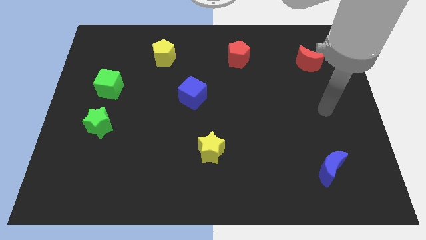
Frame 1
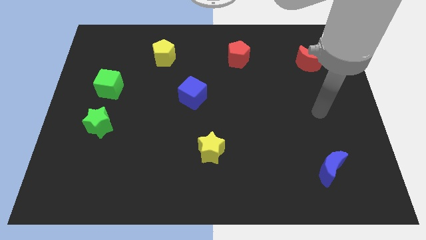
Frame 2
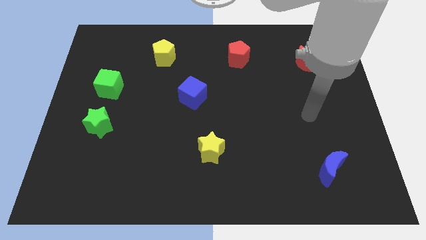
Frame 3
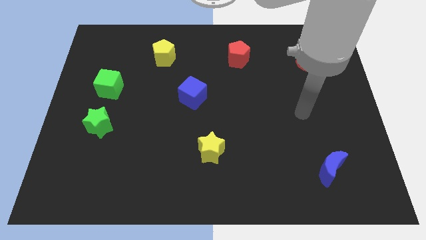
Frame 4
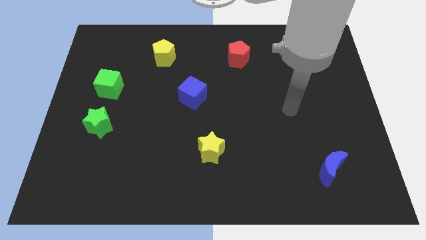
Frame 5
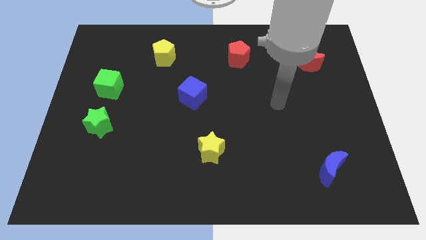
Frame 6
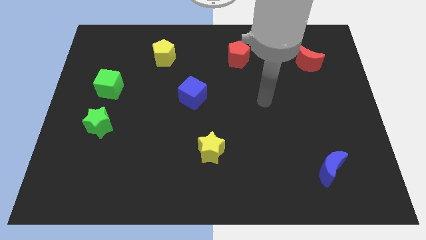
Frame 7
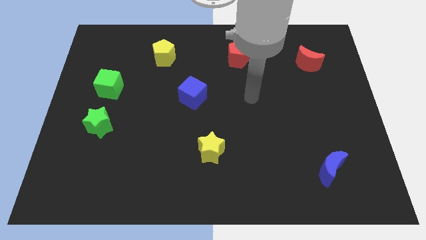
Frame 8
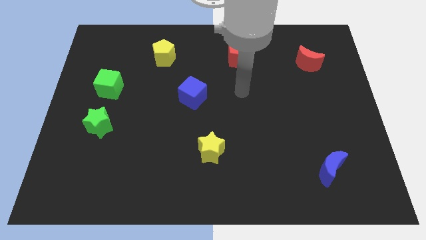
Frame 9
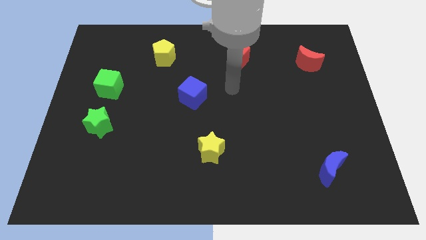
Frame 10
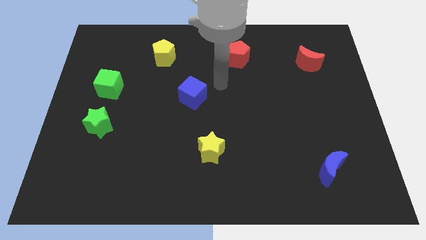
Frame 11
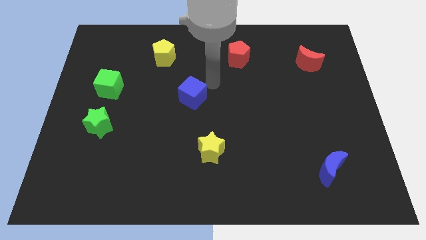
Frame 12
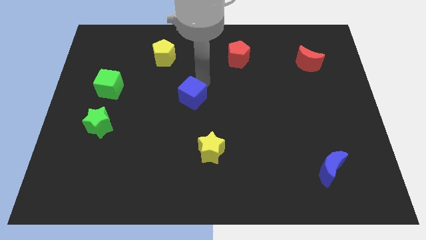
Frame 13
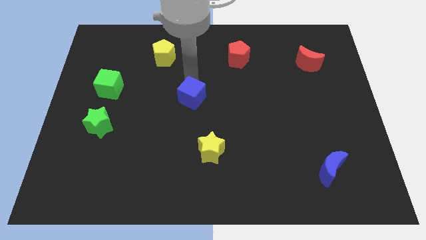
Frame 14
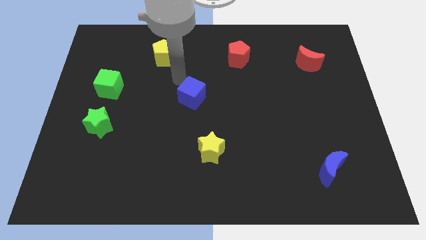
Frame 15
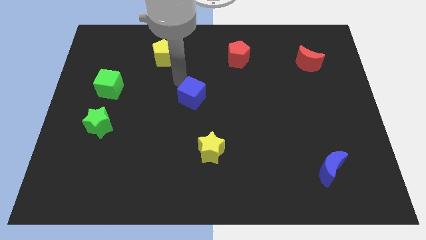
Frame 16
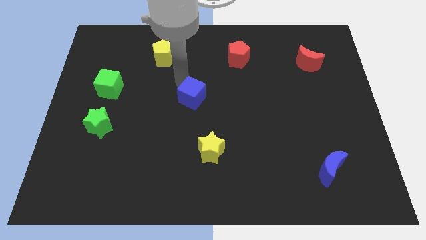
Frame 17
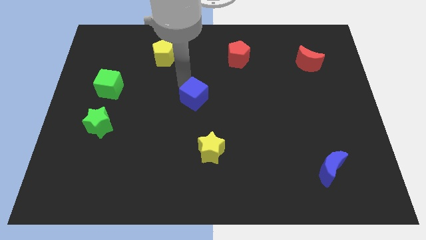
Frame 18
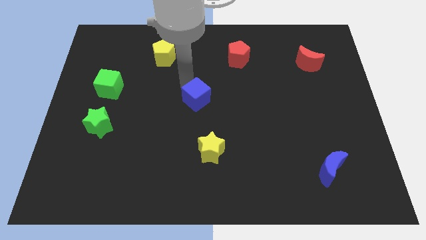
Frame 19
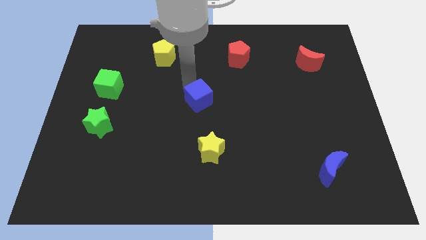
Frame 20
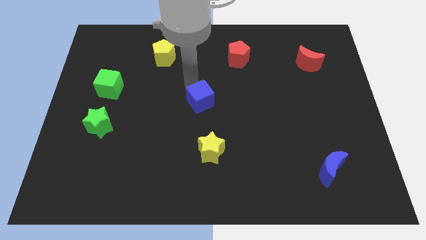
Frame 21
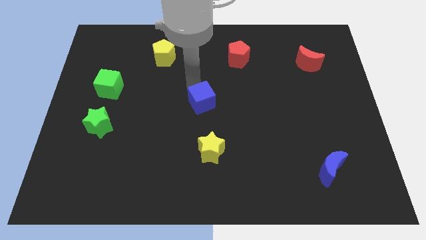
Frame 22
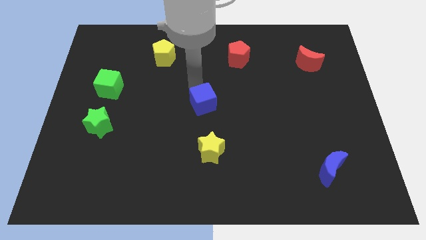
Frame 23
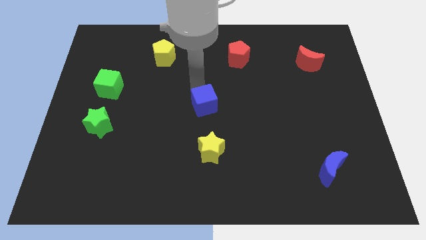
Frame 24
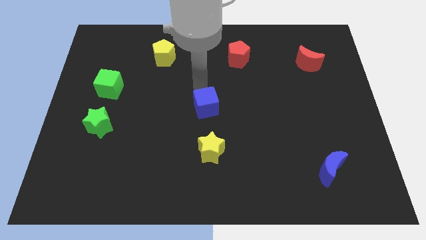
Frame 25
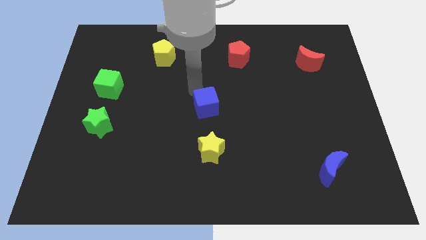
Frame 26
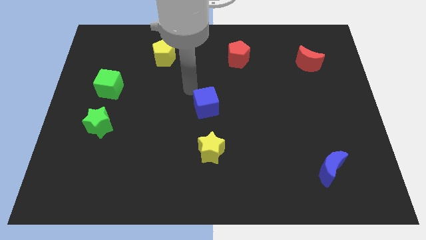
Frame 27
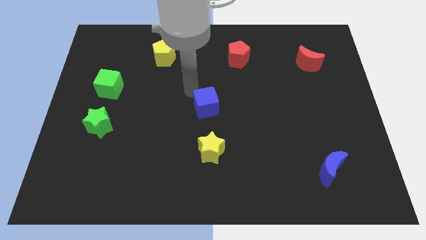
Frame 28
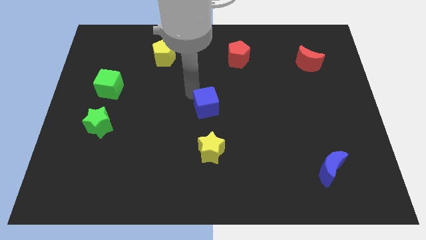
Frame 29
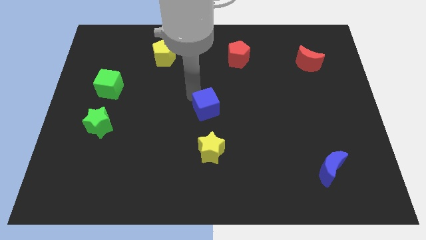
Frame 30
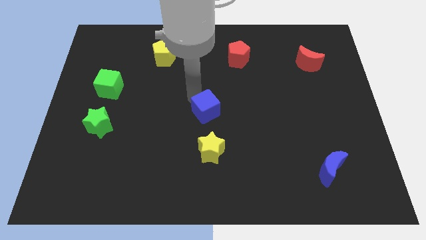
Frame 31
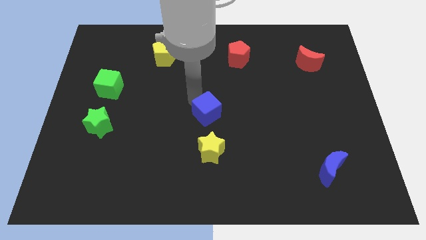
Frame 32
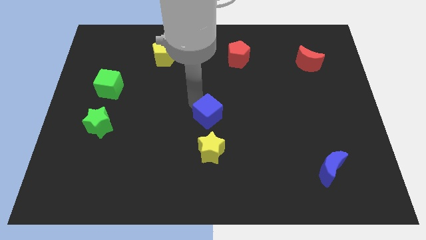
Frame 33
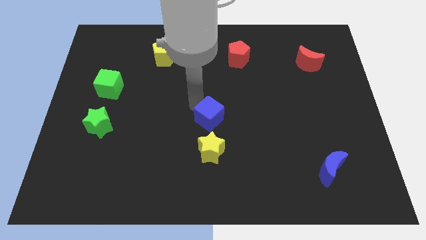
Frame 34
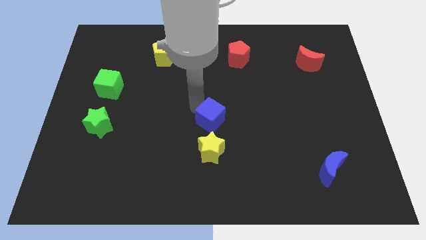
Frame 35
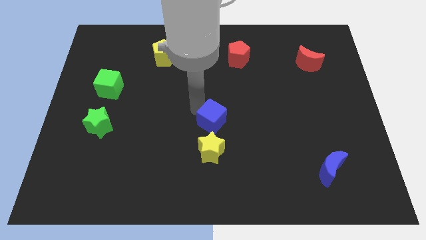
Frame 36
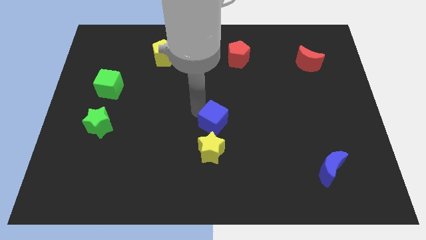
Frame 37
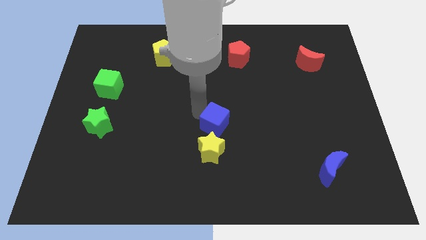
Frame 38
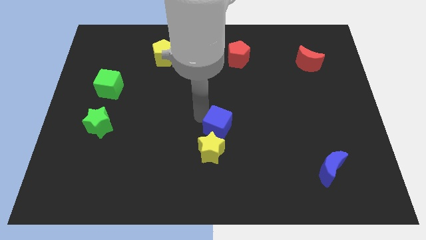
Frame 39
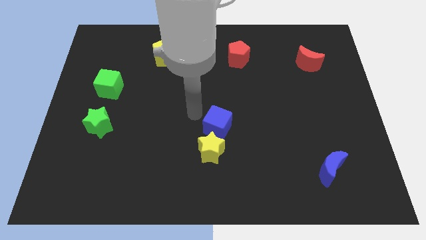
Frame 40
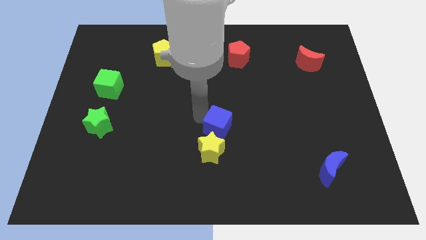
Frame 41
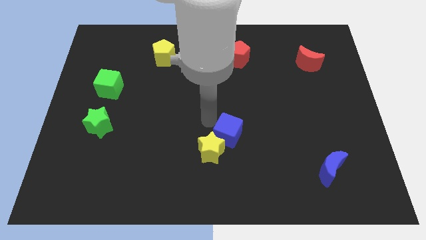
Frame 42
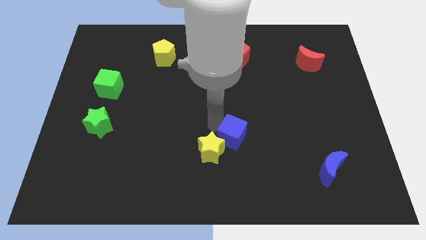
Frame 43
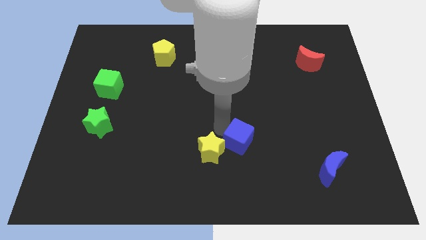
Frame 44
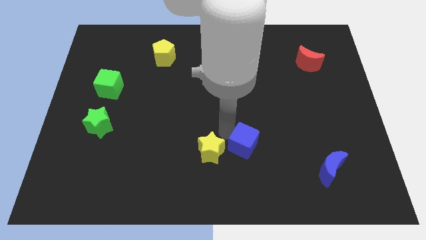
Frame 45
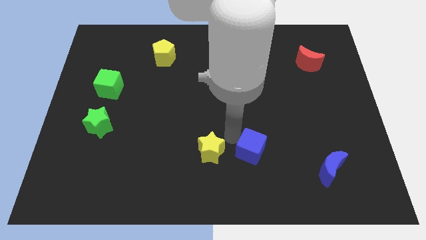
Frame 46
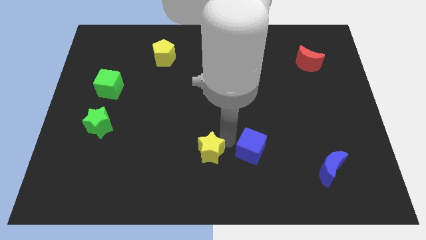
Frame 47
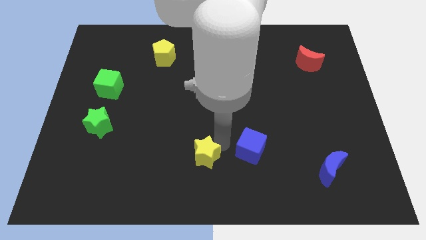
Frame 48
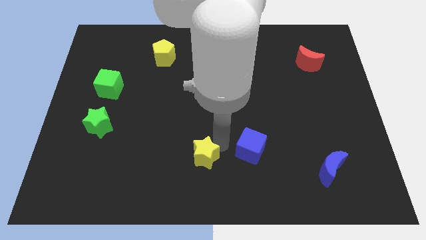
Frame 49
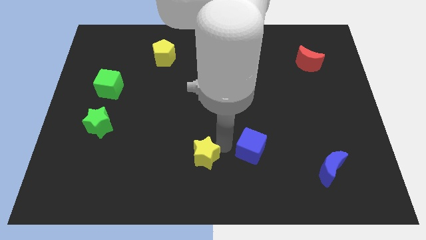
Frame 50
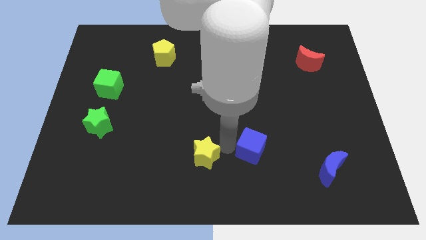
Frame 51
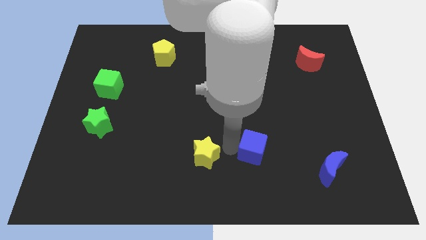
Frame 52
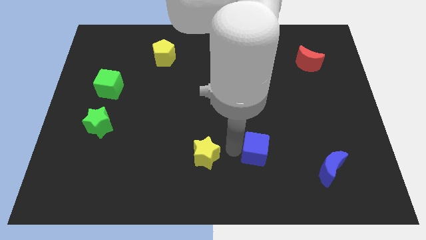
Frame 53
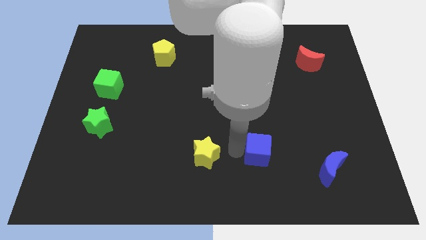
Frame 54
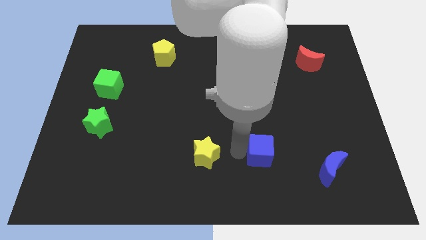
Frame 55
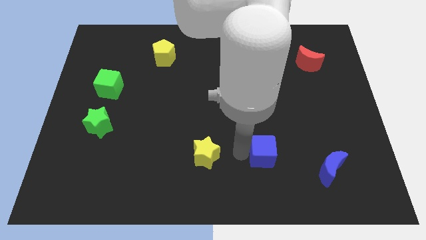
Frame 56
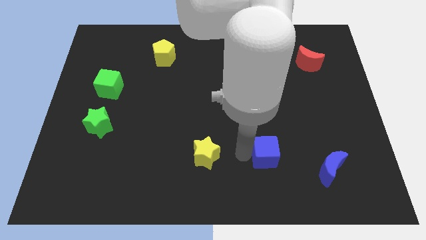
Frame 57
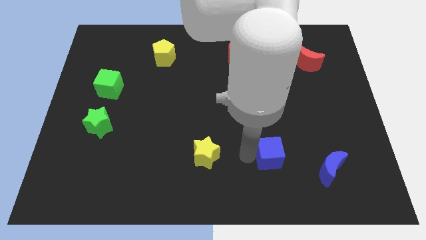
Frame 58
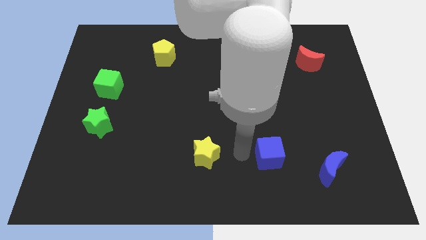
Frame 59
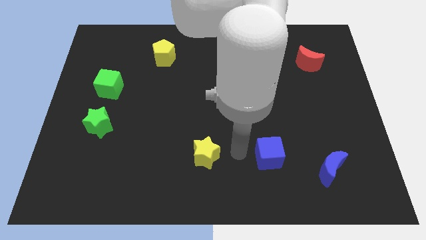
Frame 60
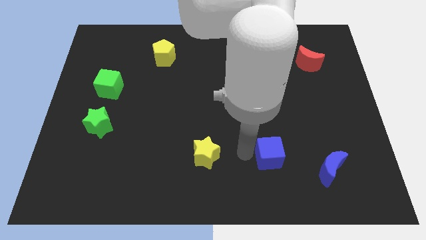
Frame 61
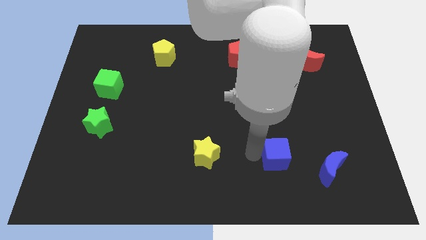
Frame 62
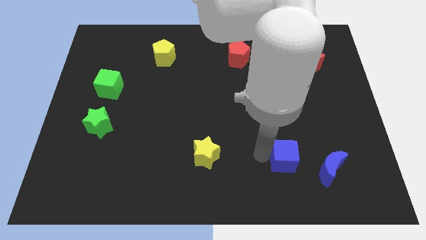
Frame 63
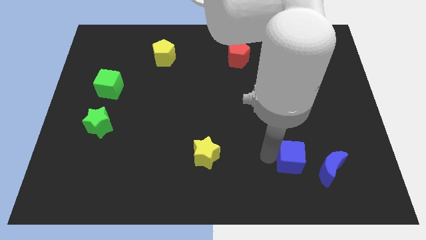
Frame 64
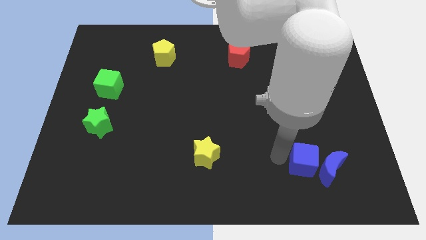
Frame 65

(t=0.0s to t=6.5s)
put the blue cube towards the blue moon

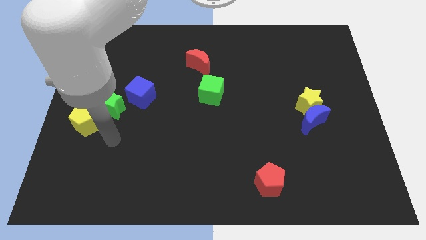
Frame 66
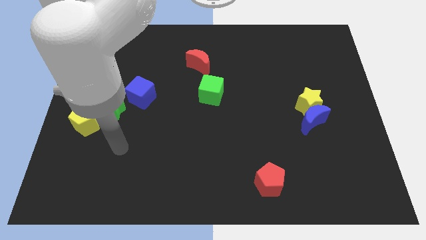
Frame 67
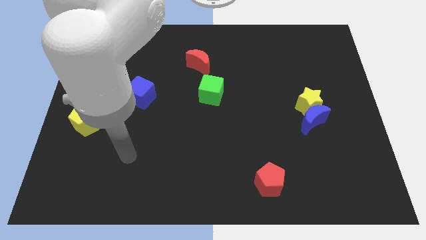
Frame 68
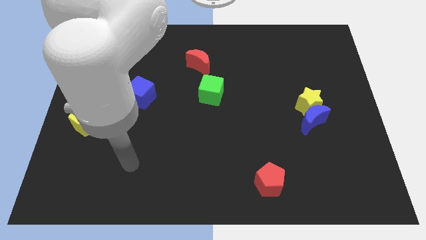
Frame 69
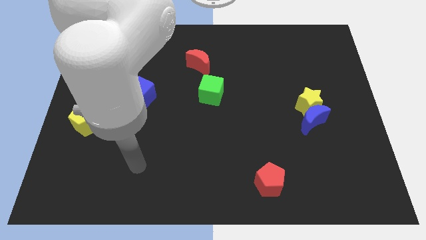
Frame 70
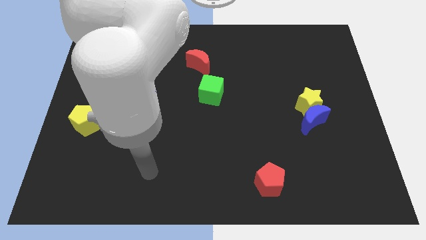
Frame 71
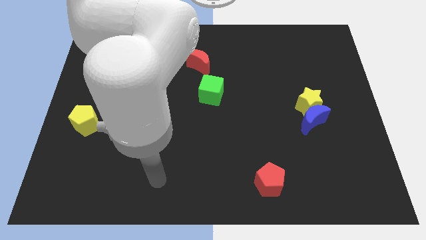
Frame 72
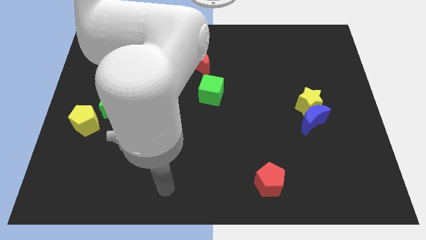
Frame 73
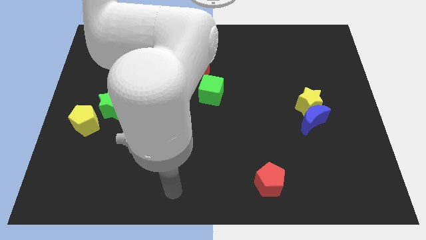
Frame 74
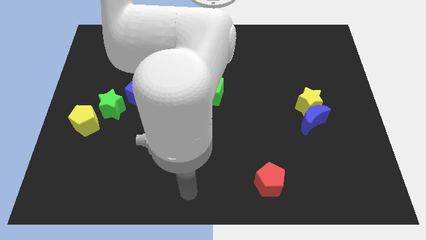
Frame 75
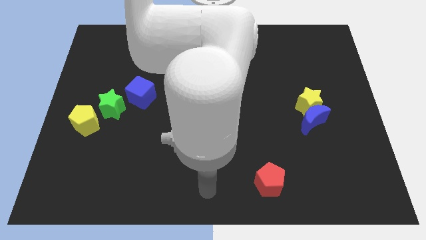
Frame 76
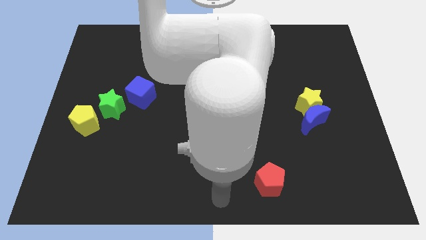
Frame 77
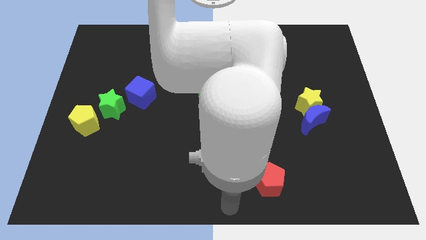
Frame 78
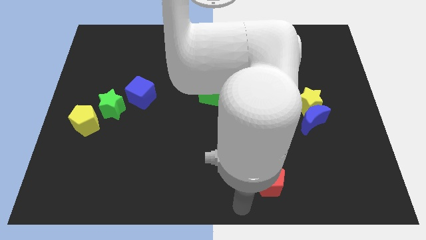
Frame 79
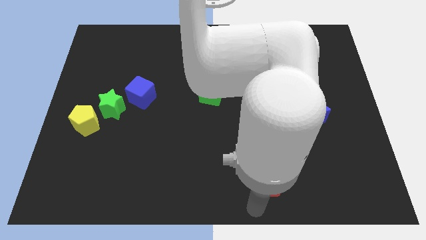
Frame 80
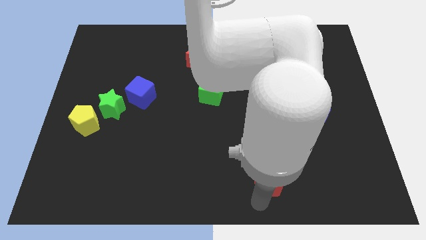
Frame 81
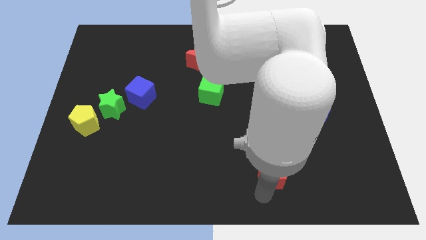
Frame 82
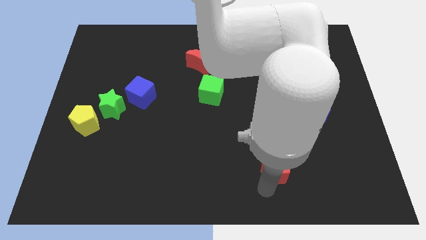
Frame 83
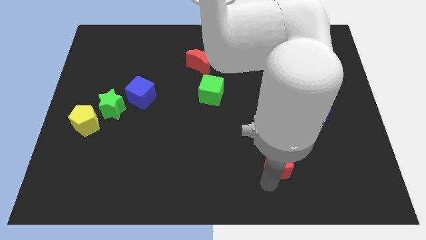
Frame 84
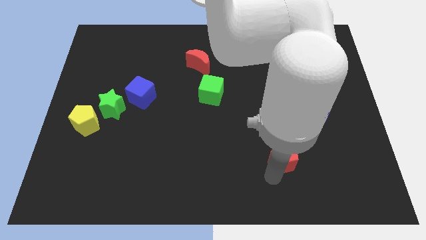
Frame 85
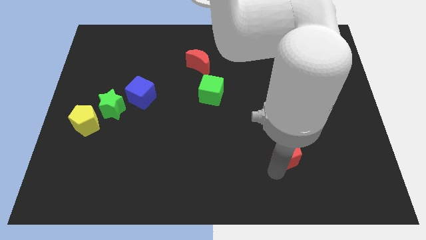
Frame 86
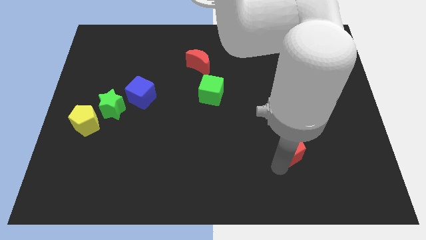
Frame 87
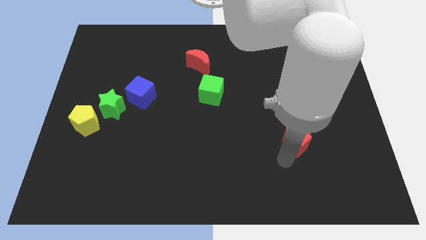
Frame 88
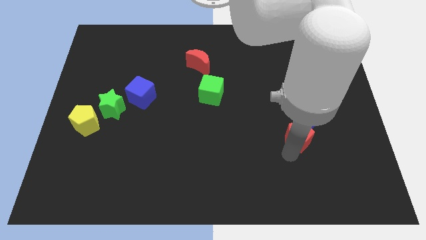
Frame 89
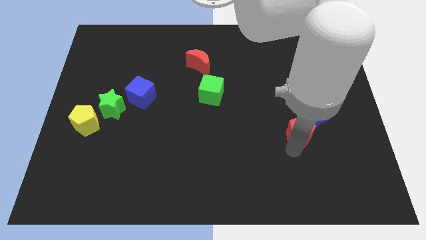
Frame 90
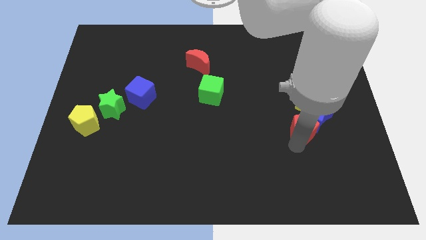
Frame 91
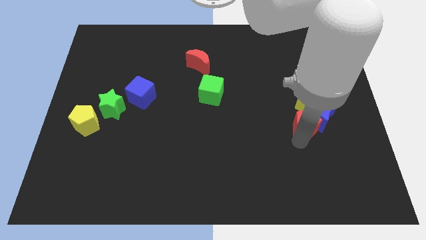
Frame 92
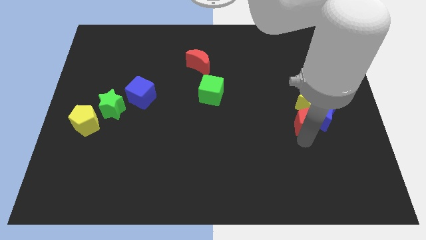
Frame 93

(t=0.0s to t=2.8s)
move the red pentagon next to the yellow star
